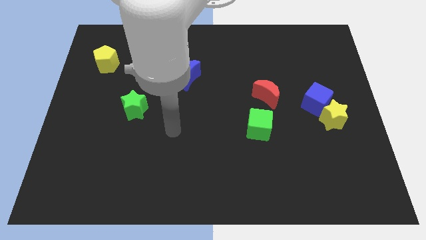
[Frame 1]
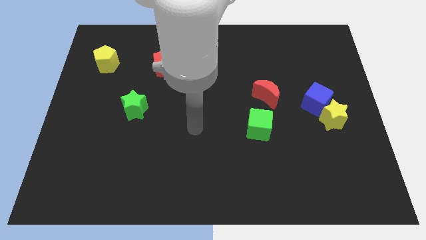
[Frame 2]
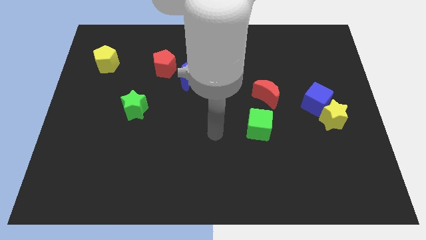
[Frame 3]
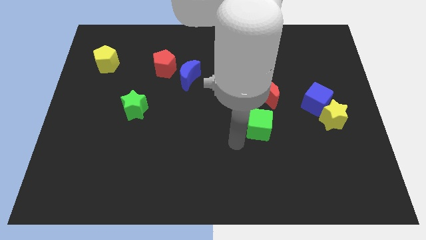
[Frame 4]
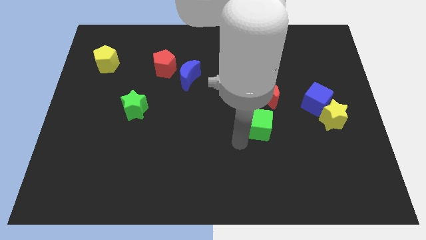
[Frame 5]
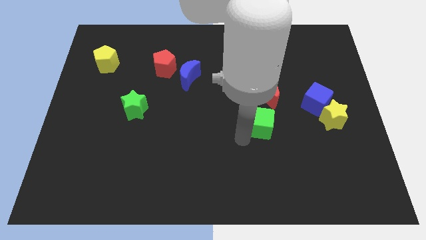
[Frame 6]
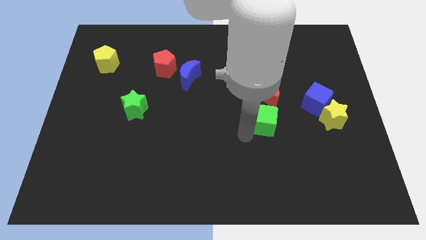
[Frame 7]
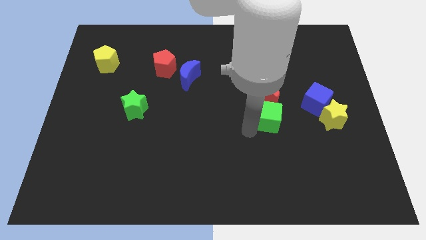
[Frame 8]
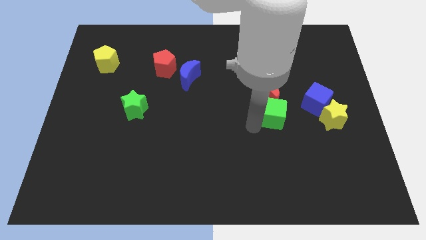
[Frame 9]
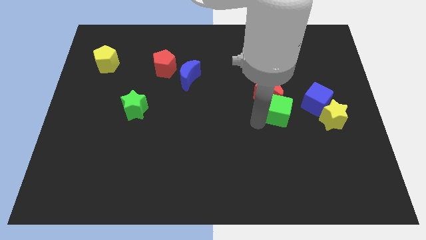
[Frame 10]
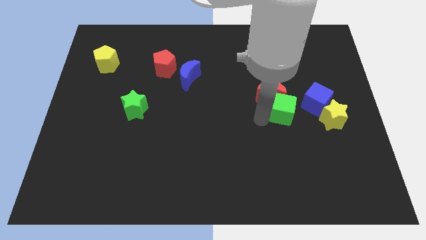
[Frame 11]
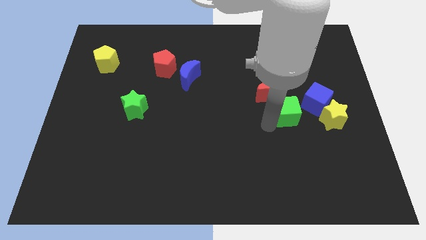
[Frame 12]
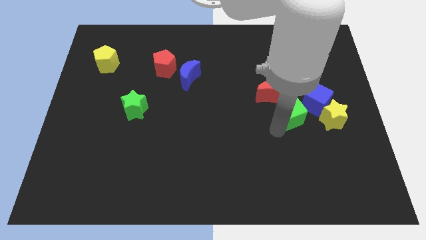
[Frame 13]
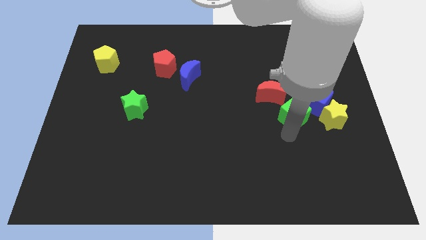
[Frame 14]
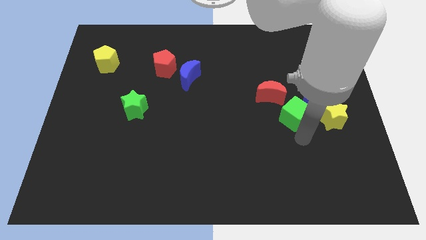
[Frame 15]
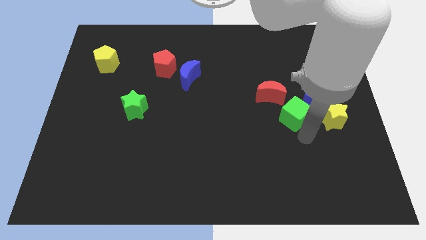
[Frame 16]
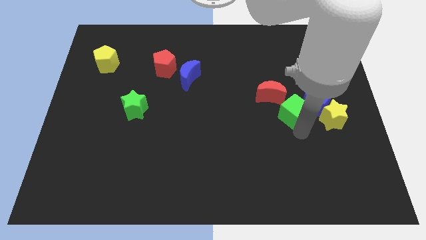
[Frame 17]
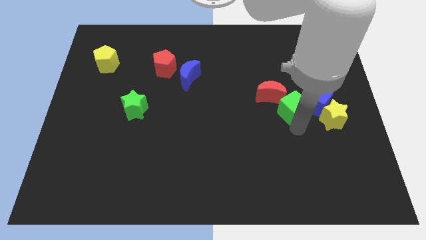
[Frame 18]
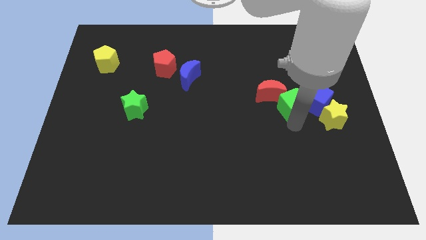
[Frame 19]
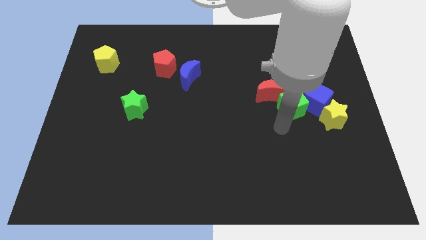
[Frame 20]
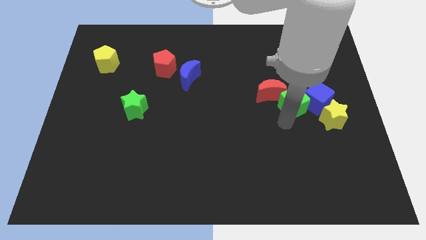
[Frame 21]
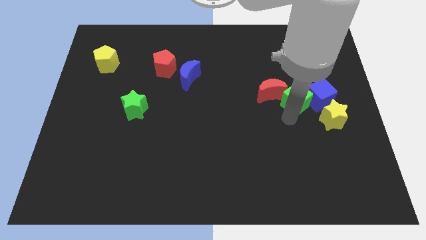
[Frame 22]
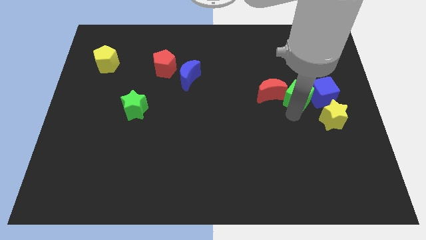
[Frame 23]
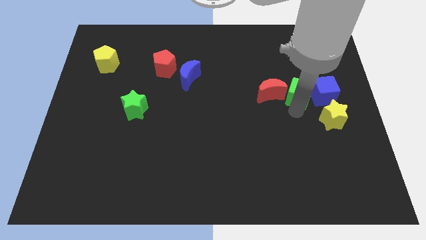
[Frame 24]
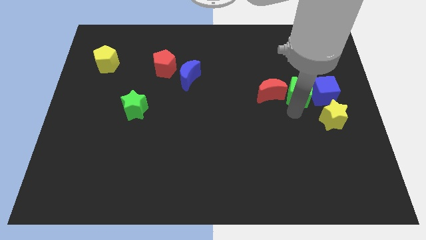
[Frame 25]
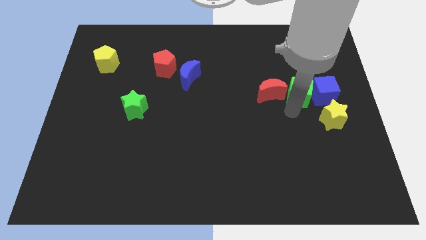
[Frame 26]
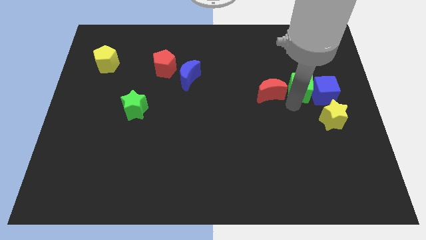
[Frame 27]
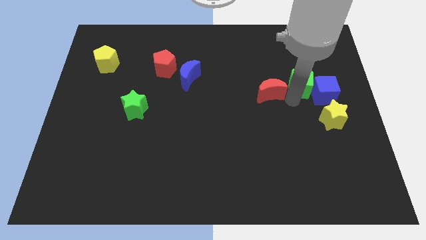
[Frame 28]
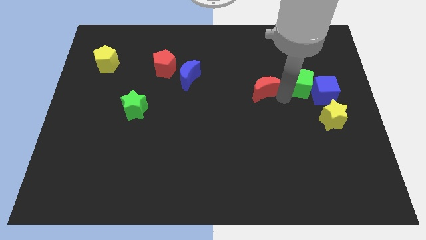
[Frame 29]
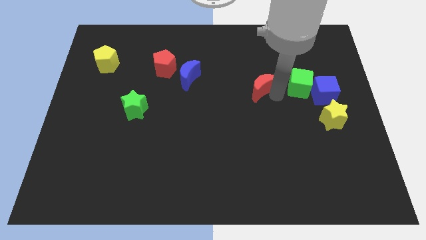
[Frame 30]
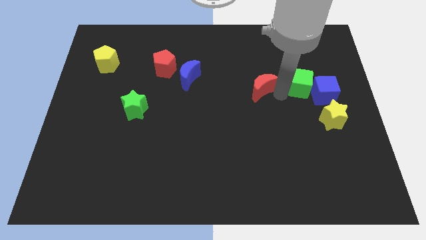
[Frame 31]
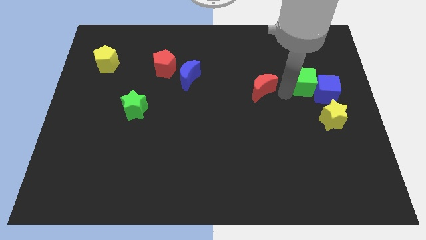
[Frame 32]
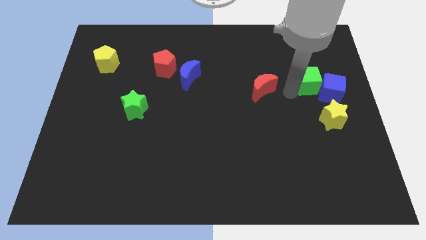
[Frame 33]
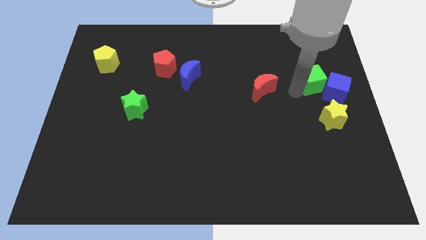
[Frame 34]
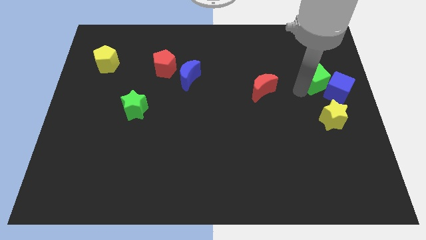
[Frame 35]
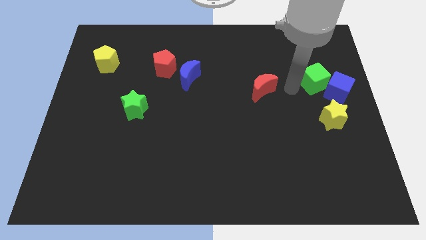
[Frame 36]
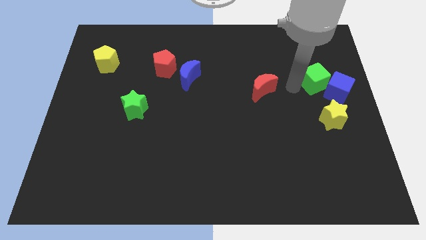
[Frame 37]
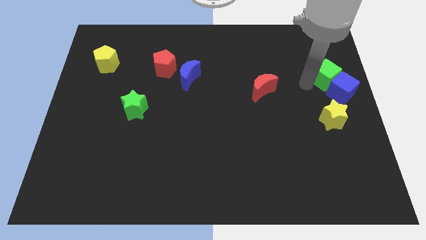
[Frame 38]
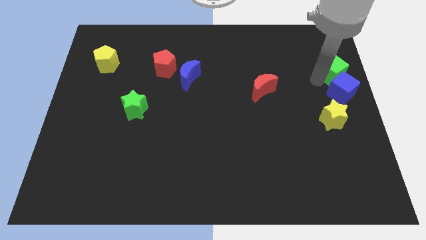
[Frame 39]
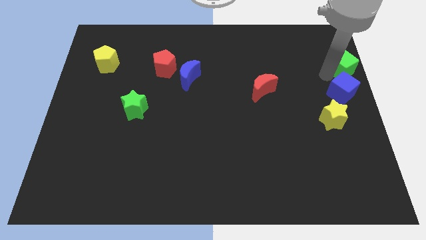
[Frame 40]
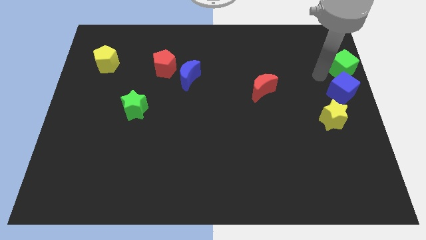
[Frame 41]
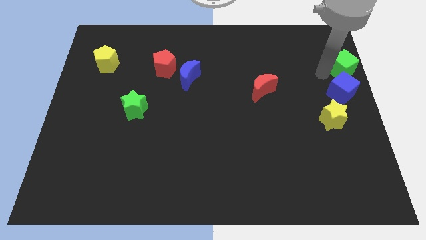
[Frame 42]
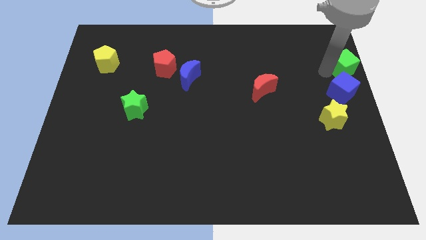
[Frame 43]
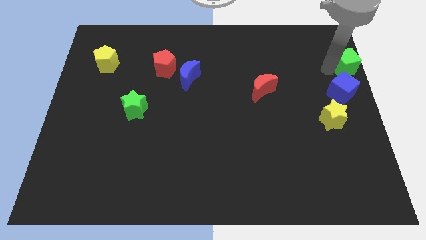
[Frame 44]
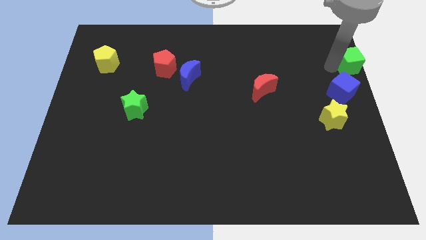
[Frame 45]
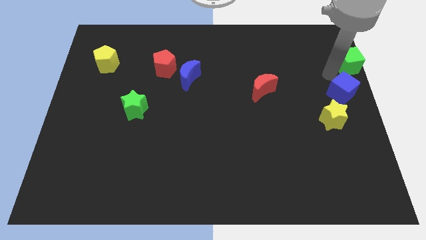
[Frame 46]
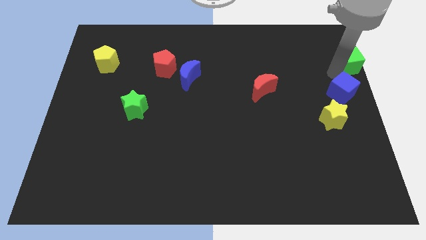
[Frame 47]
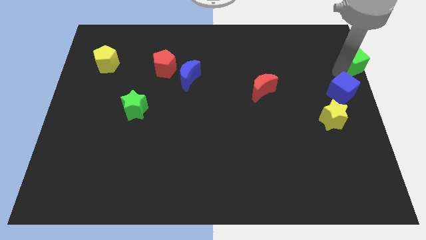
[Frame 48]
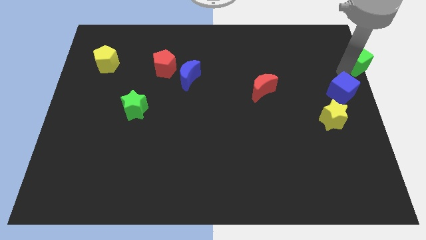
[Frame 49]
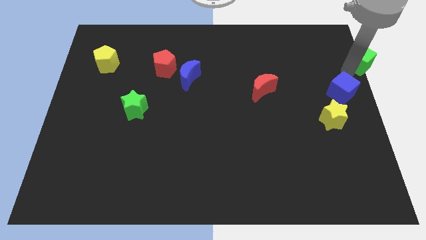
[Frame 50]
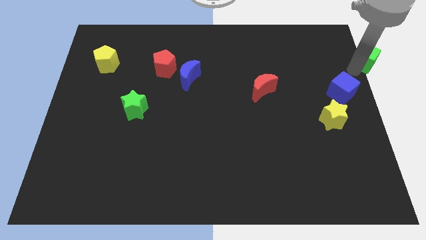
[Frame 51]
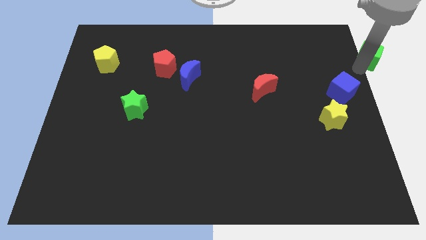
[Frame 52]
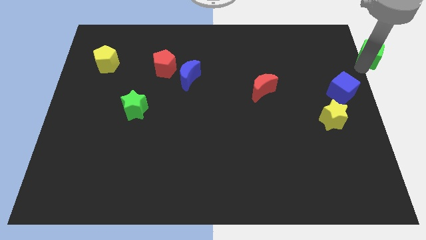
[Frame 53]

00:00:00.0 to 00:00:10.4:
push the green cube to the upper right corner
